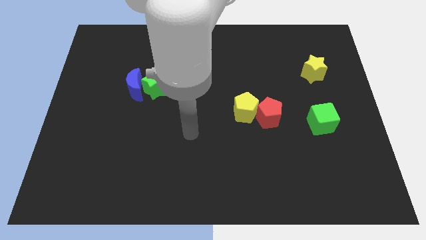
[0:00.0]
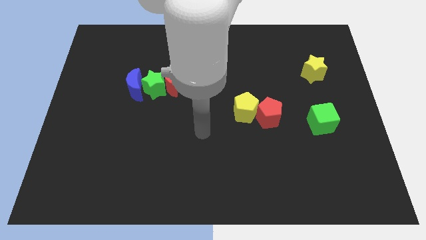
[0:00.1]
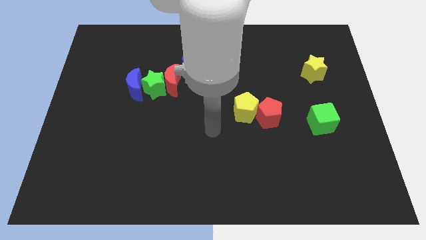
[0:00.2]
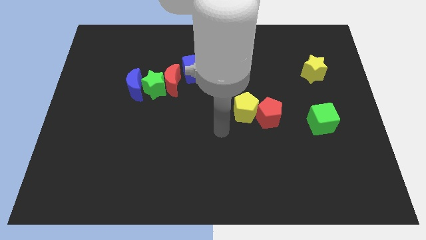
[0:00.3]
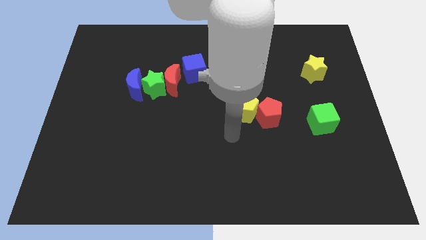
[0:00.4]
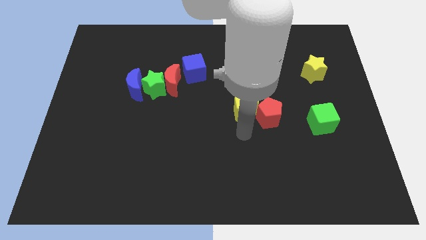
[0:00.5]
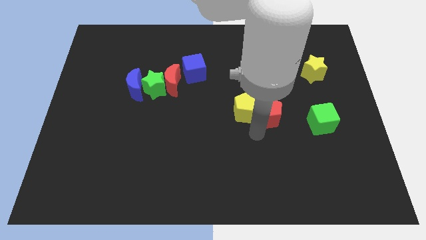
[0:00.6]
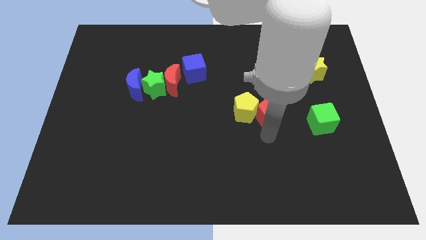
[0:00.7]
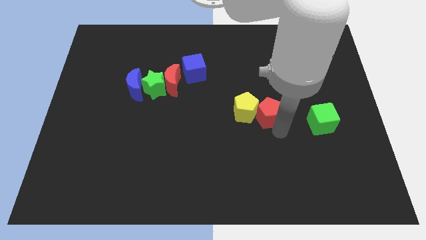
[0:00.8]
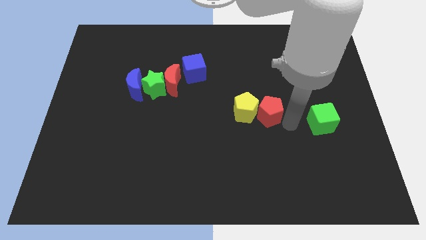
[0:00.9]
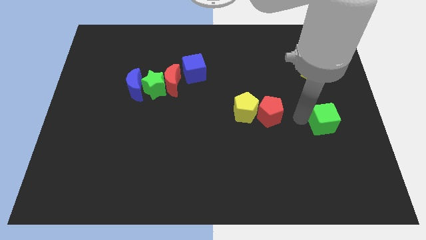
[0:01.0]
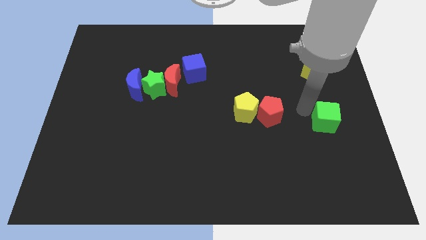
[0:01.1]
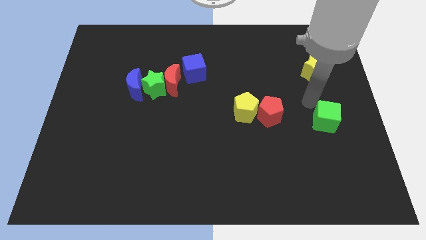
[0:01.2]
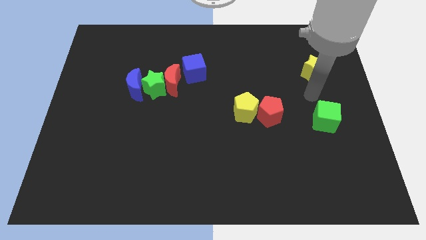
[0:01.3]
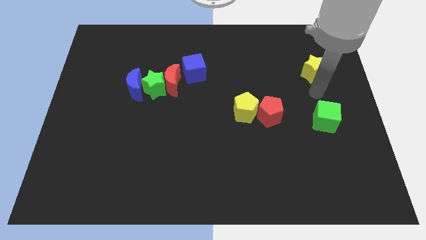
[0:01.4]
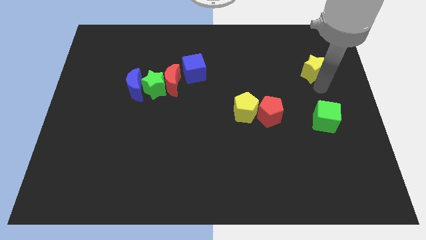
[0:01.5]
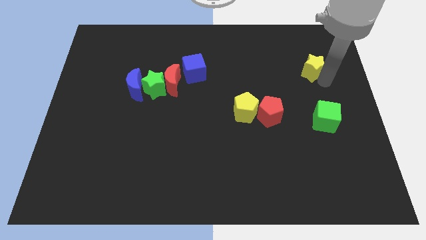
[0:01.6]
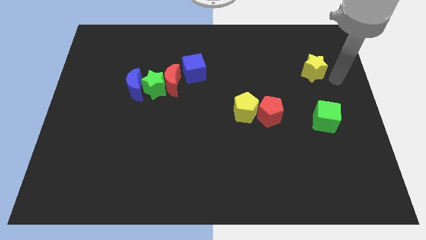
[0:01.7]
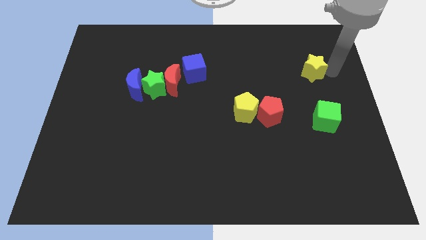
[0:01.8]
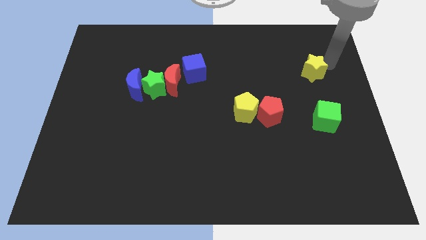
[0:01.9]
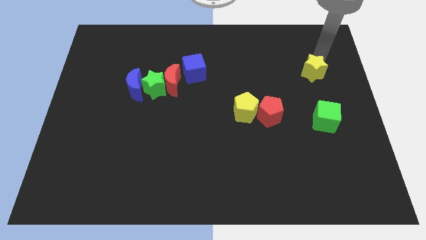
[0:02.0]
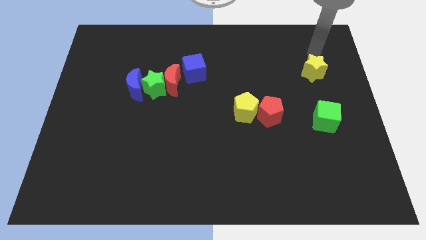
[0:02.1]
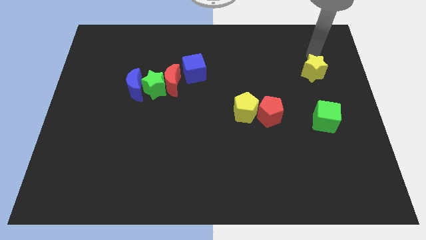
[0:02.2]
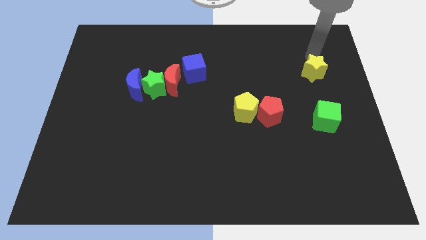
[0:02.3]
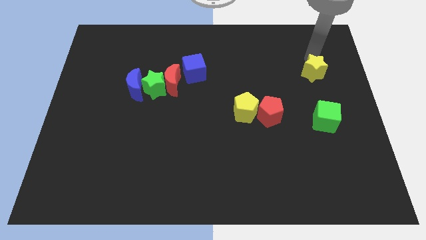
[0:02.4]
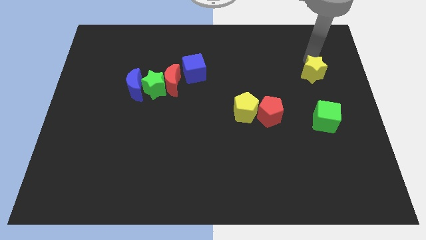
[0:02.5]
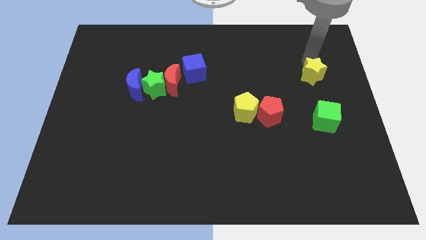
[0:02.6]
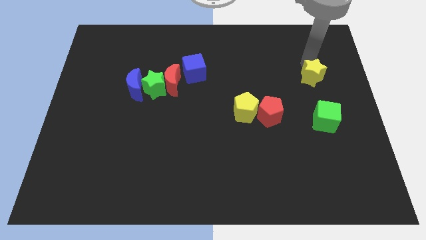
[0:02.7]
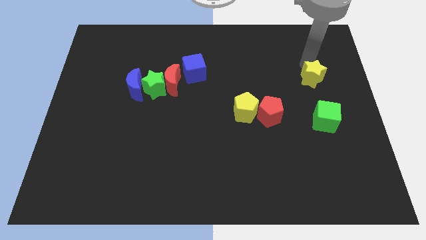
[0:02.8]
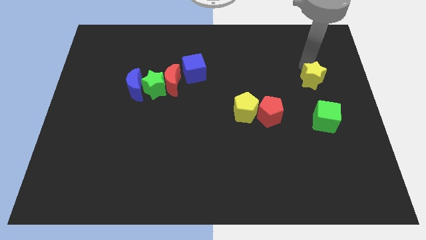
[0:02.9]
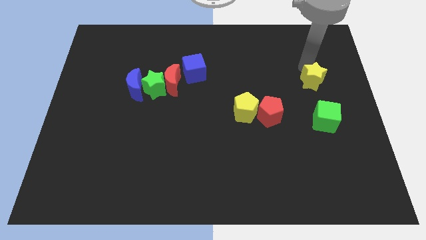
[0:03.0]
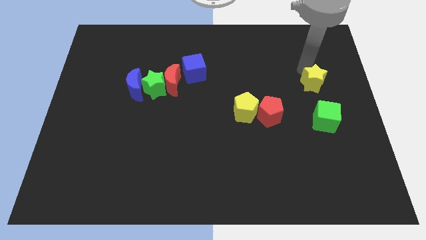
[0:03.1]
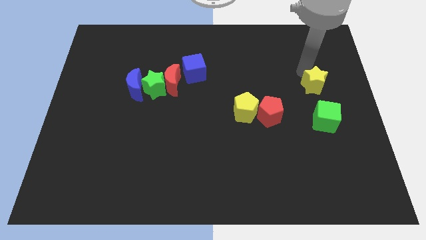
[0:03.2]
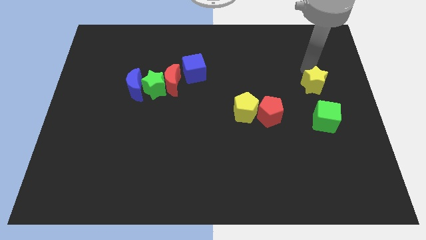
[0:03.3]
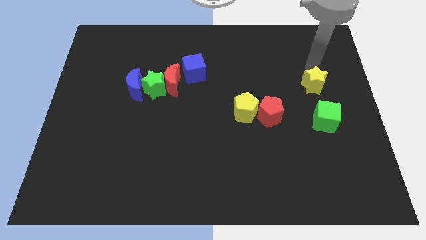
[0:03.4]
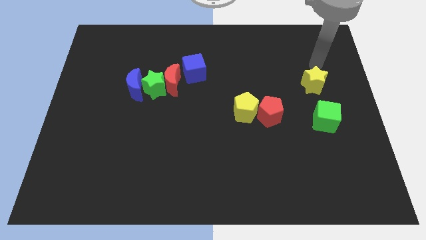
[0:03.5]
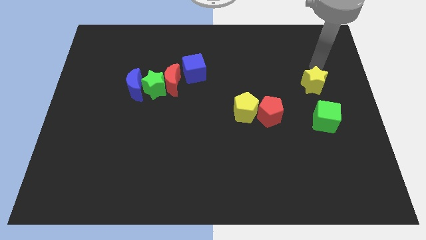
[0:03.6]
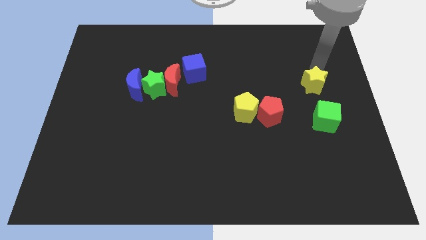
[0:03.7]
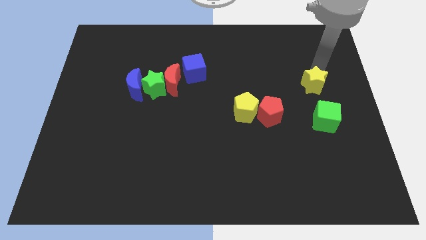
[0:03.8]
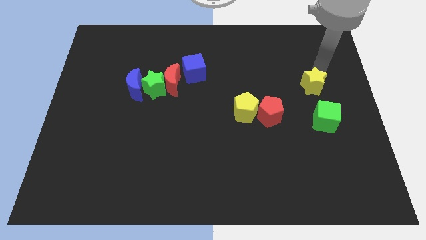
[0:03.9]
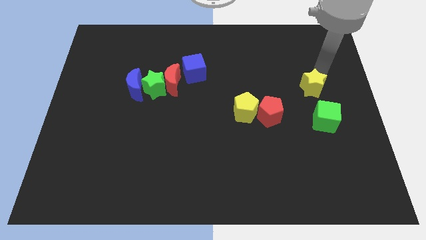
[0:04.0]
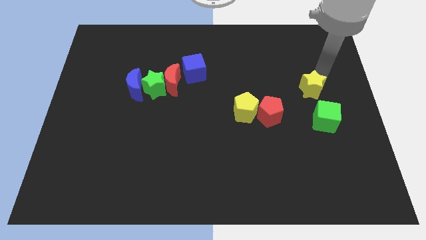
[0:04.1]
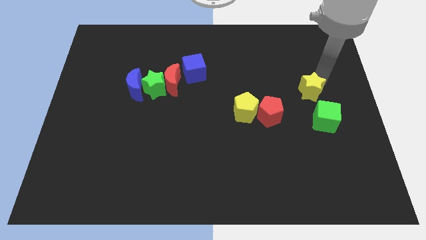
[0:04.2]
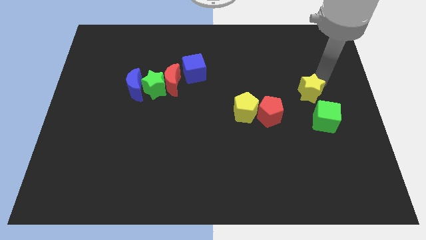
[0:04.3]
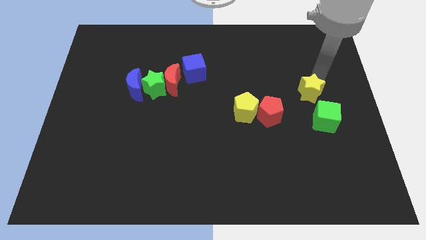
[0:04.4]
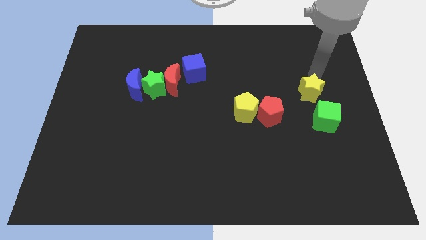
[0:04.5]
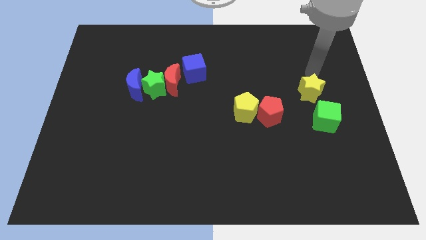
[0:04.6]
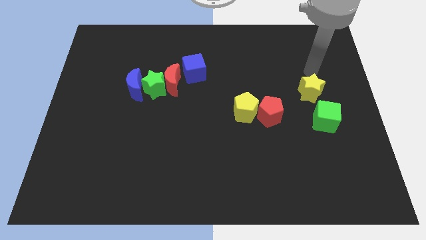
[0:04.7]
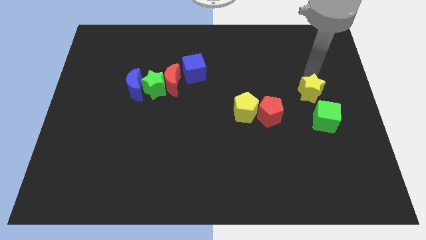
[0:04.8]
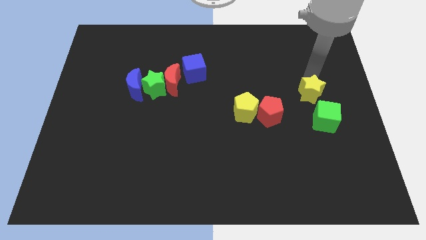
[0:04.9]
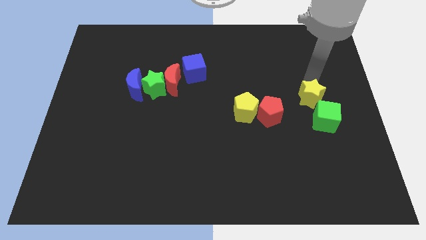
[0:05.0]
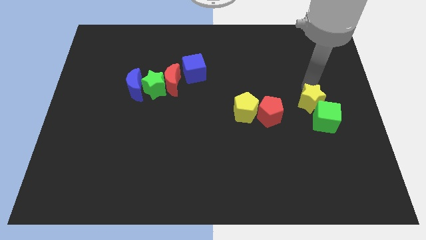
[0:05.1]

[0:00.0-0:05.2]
slide the yellow star close to the green cube

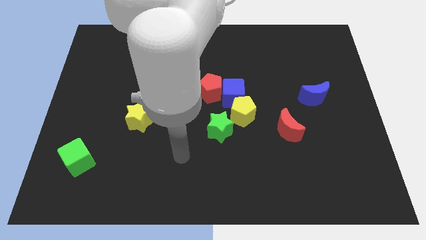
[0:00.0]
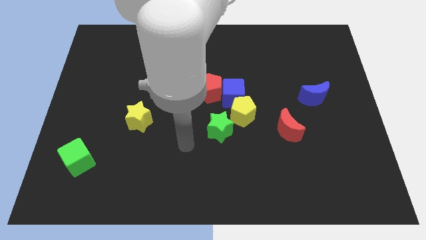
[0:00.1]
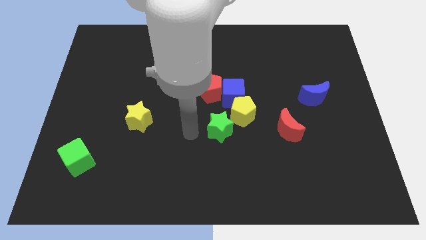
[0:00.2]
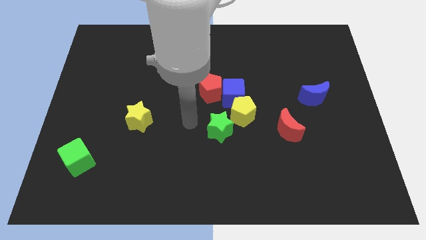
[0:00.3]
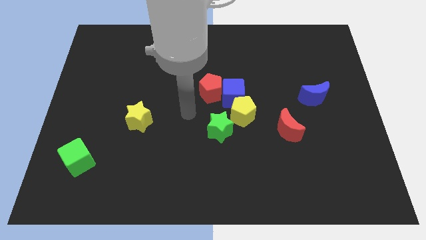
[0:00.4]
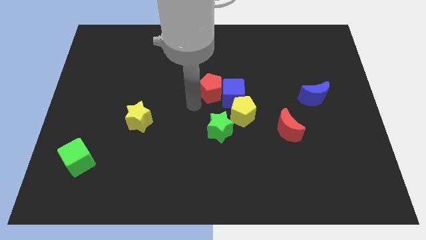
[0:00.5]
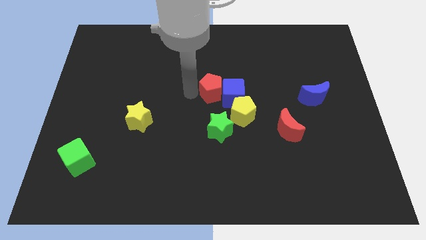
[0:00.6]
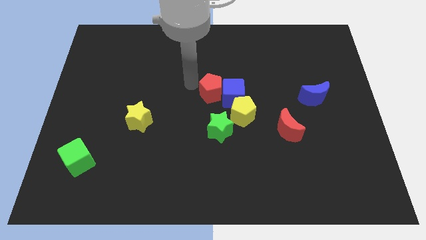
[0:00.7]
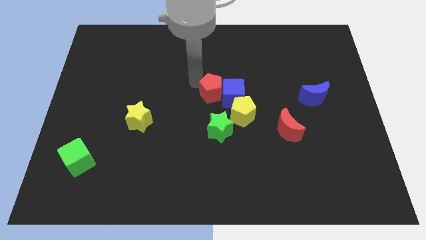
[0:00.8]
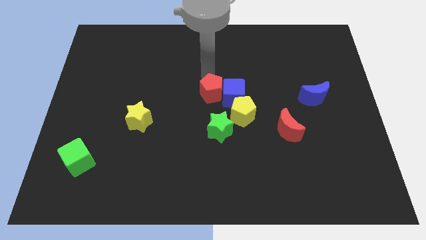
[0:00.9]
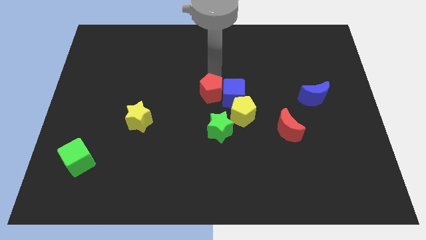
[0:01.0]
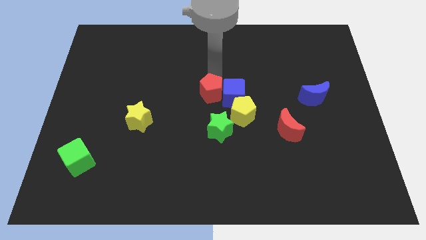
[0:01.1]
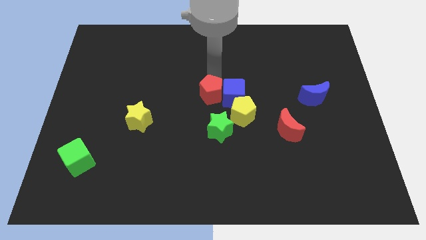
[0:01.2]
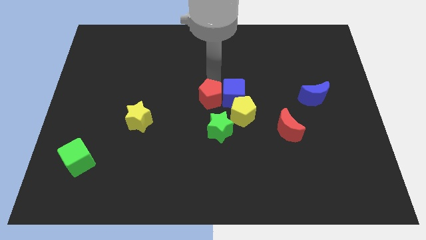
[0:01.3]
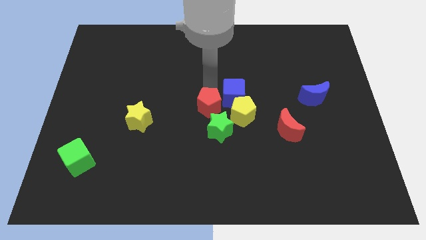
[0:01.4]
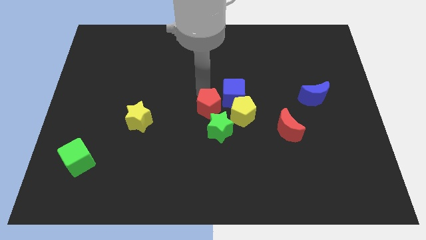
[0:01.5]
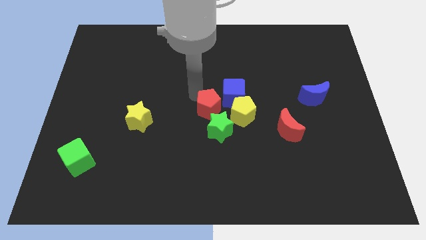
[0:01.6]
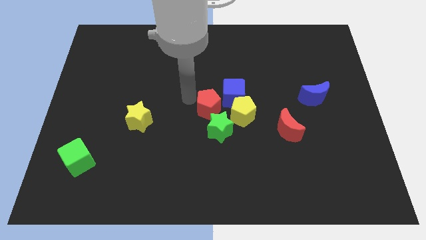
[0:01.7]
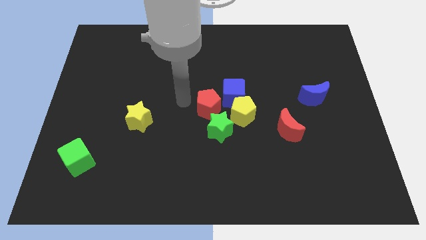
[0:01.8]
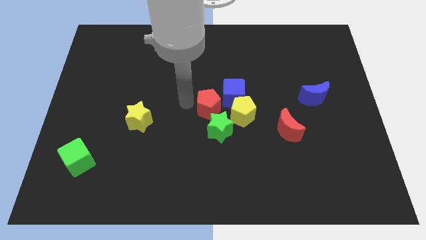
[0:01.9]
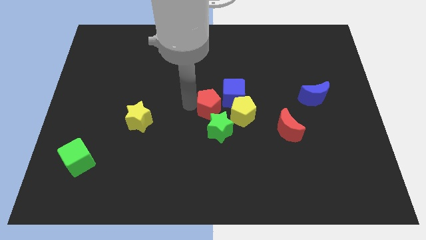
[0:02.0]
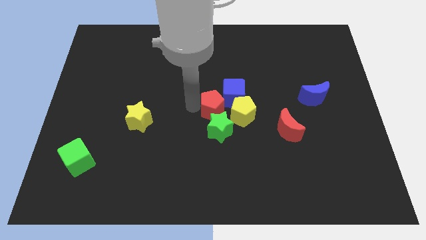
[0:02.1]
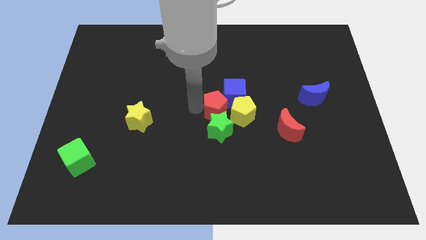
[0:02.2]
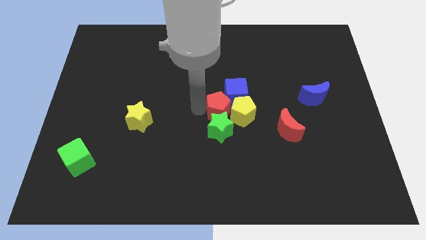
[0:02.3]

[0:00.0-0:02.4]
push the red pentagon next to the yellow pentagon
